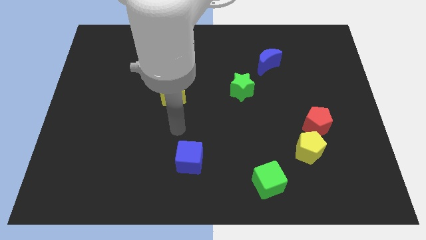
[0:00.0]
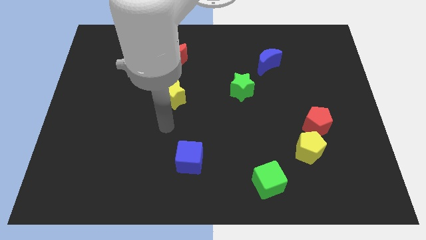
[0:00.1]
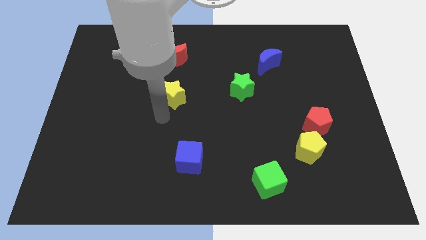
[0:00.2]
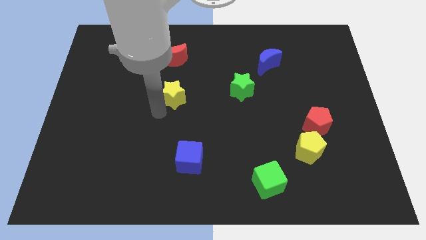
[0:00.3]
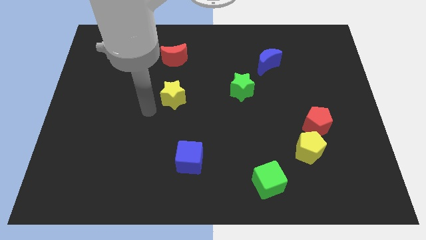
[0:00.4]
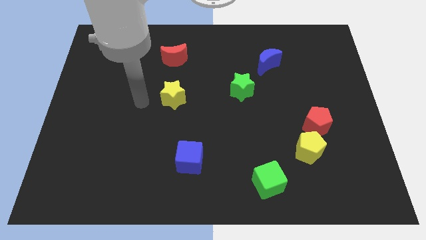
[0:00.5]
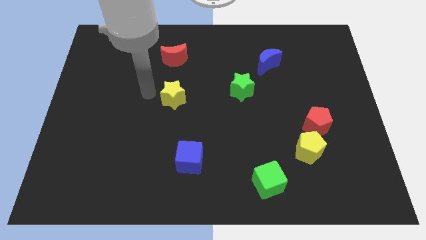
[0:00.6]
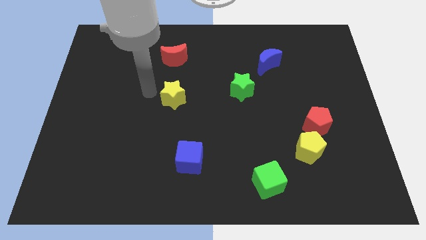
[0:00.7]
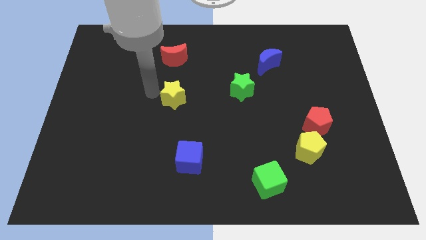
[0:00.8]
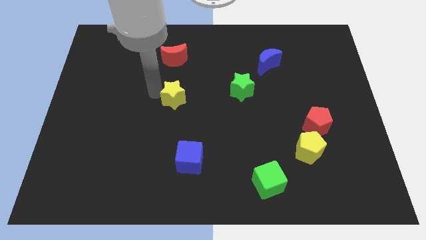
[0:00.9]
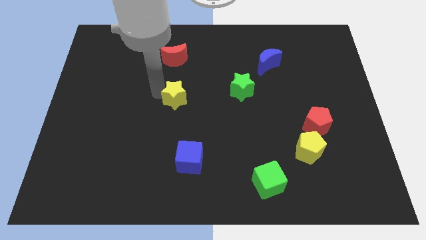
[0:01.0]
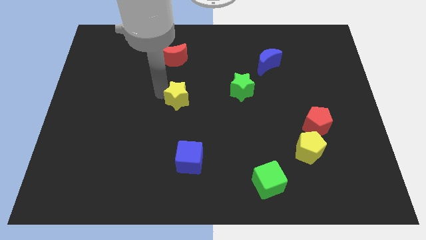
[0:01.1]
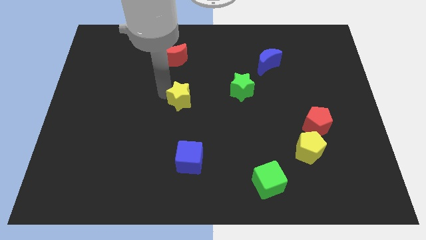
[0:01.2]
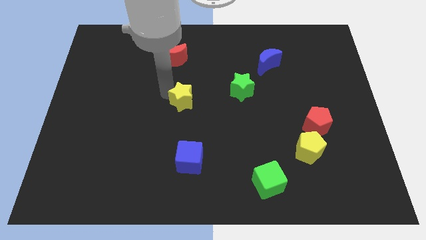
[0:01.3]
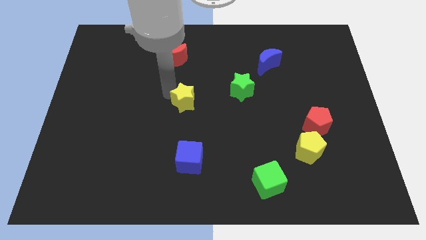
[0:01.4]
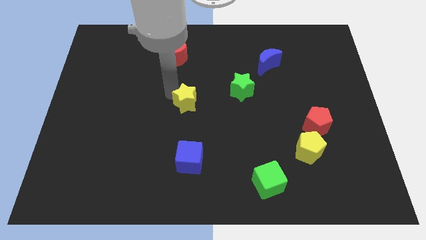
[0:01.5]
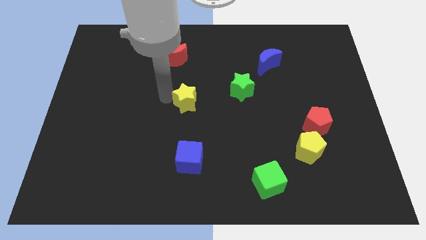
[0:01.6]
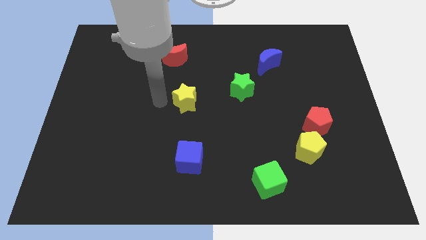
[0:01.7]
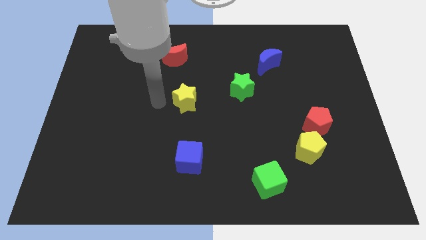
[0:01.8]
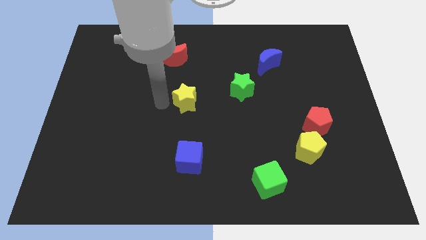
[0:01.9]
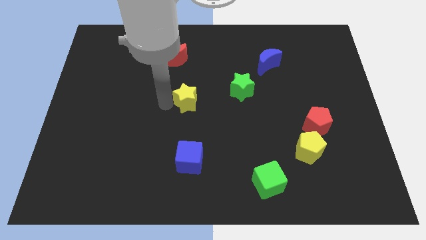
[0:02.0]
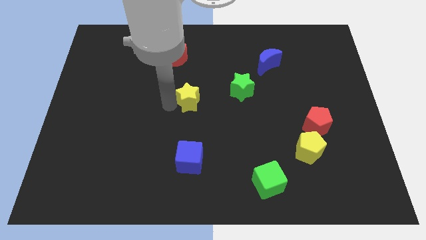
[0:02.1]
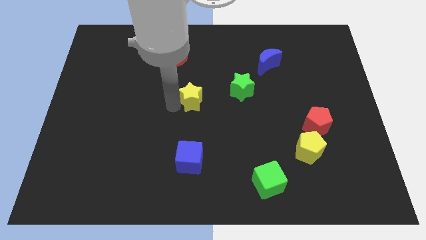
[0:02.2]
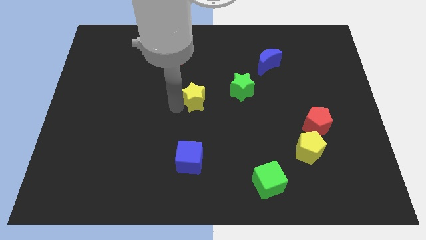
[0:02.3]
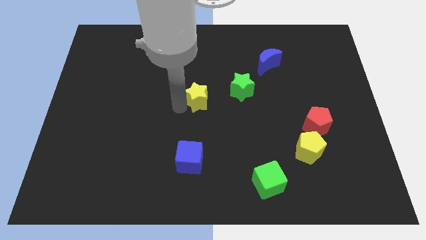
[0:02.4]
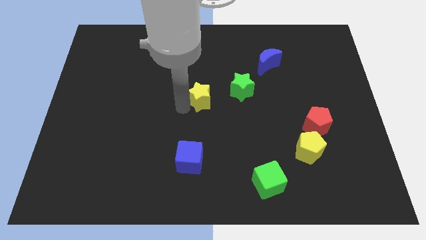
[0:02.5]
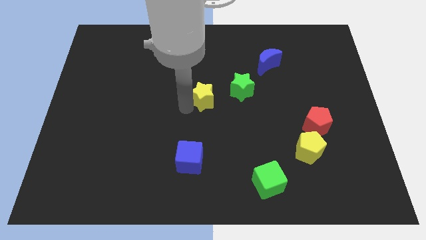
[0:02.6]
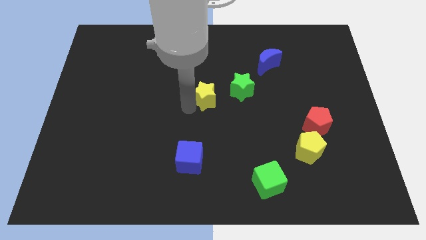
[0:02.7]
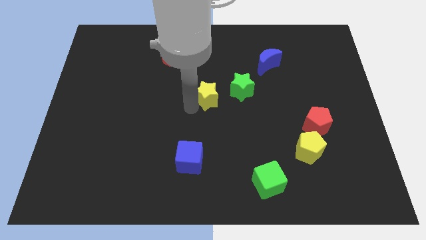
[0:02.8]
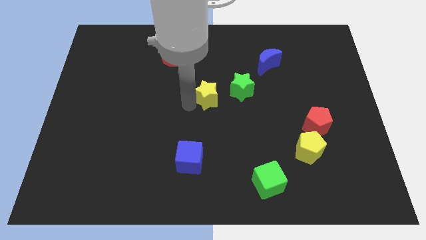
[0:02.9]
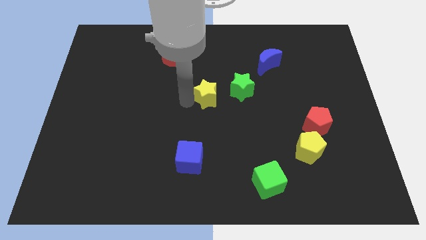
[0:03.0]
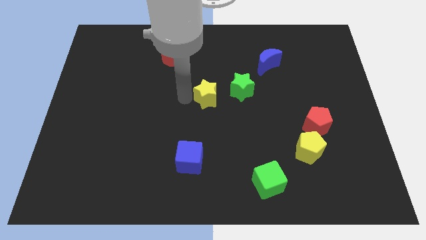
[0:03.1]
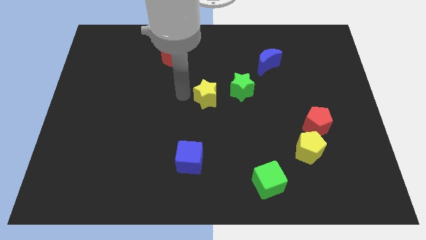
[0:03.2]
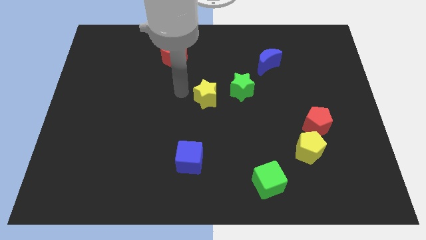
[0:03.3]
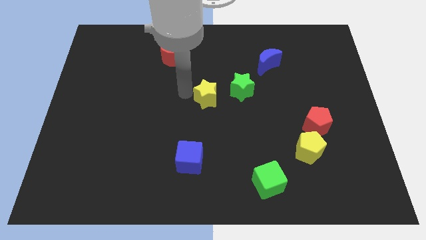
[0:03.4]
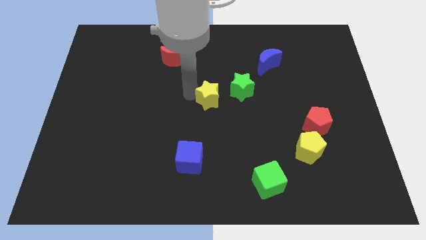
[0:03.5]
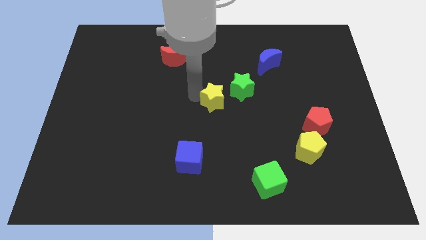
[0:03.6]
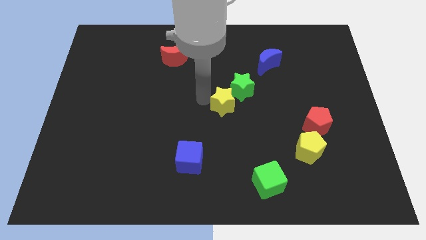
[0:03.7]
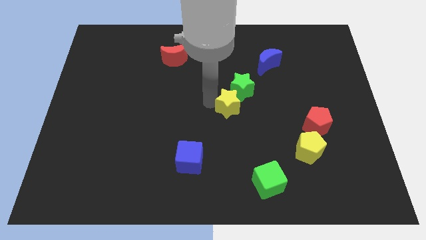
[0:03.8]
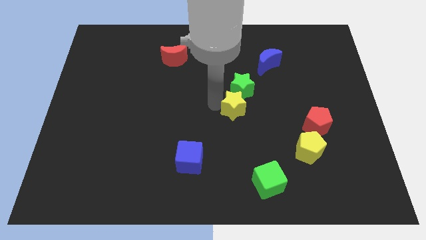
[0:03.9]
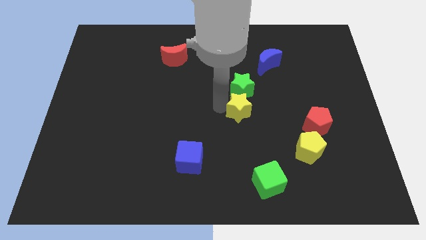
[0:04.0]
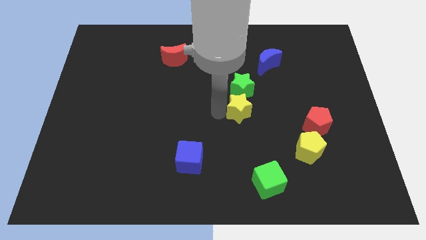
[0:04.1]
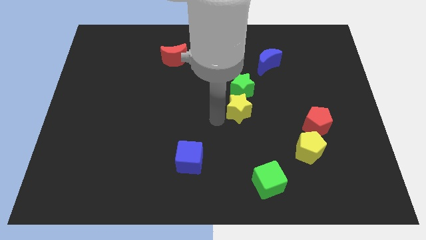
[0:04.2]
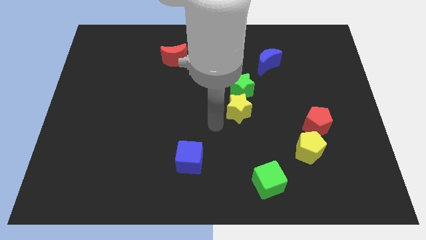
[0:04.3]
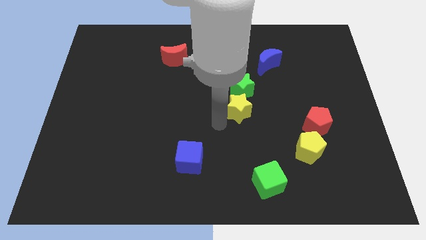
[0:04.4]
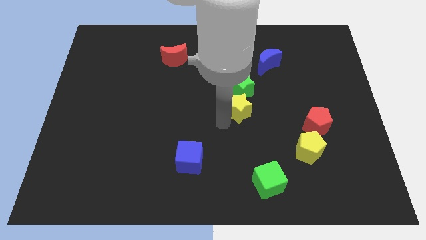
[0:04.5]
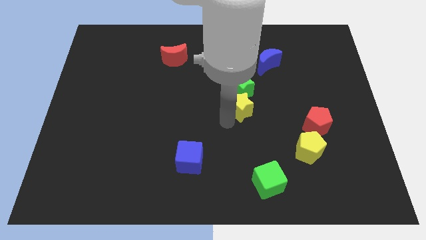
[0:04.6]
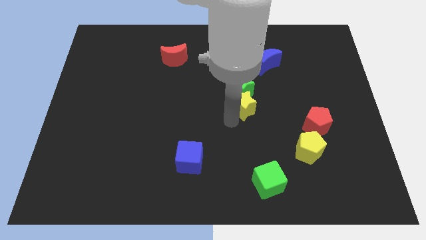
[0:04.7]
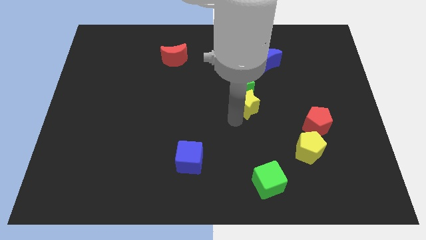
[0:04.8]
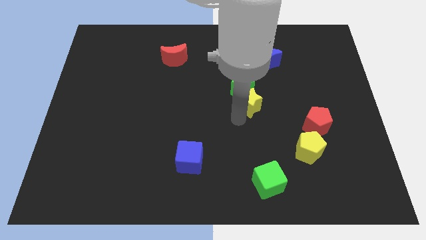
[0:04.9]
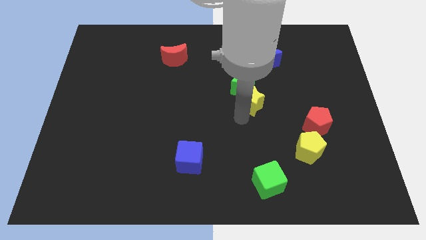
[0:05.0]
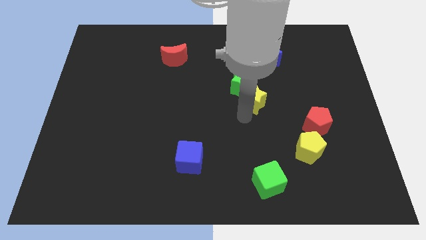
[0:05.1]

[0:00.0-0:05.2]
move the yellow star to the bottom side of the blue moon
